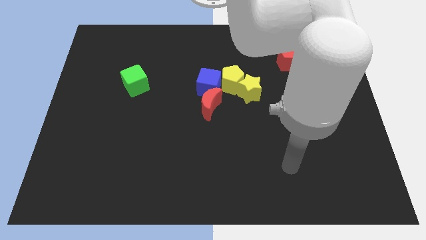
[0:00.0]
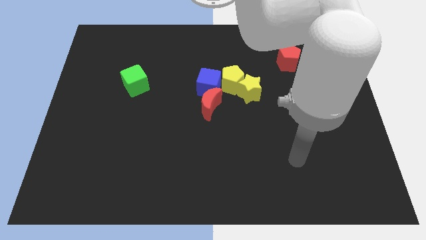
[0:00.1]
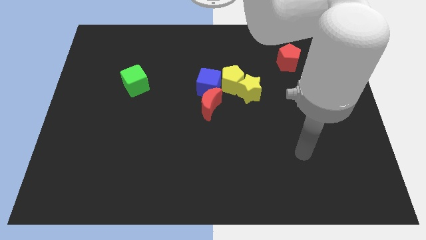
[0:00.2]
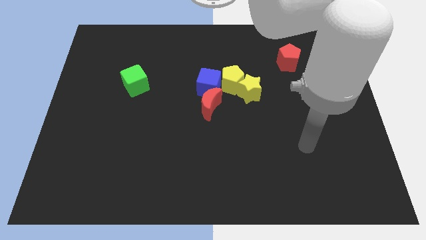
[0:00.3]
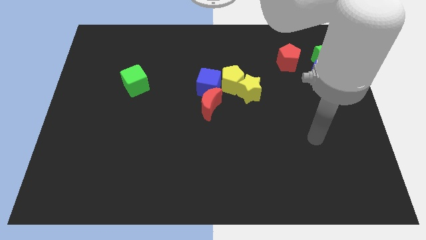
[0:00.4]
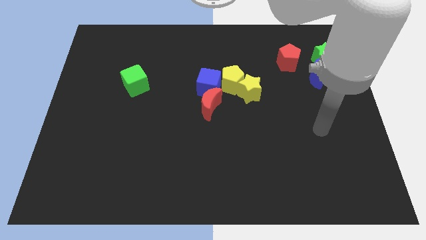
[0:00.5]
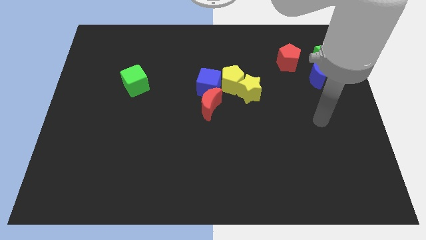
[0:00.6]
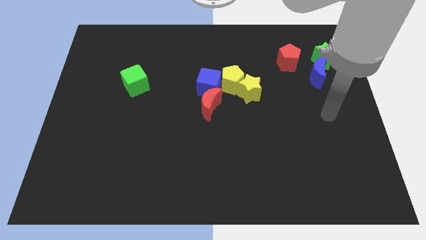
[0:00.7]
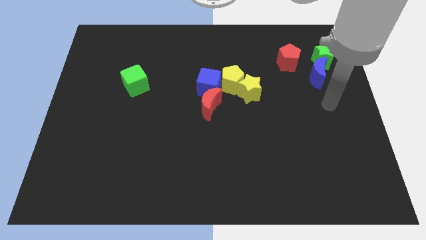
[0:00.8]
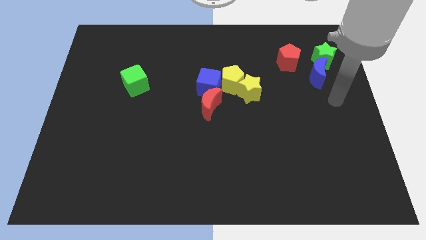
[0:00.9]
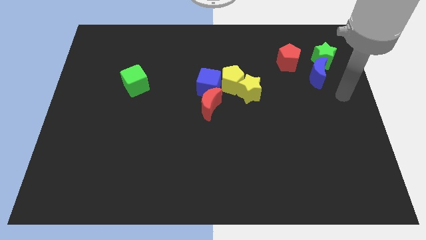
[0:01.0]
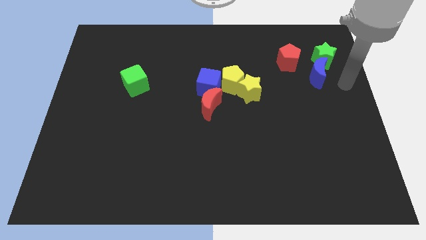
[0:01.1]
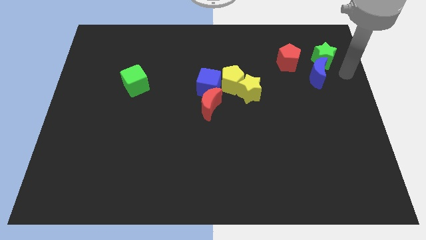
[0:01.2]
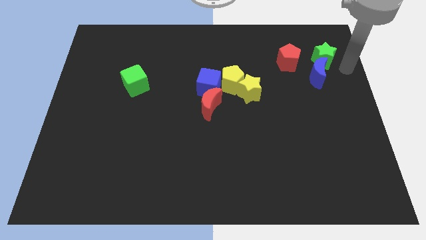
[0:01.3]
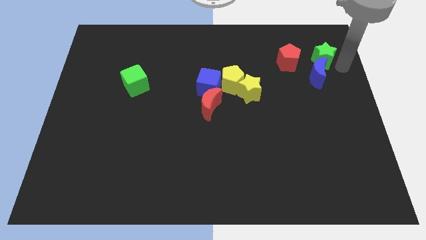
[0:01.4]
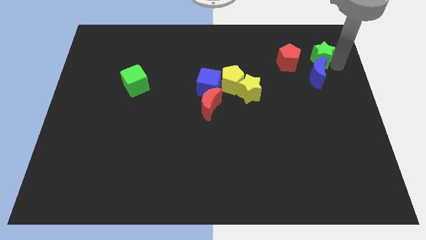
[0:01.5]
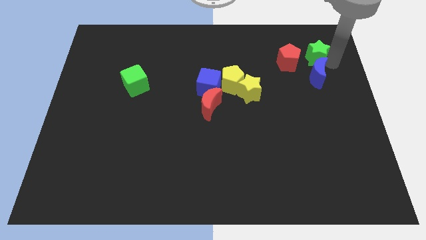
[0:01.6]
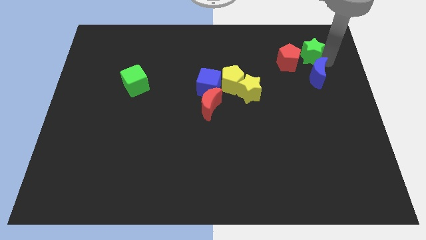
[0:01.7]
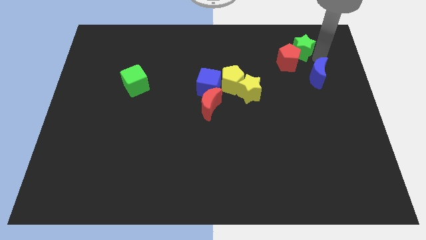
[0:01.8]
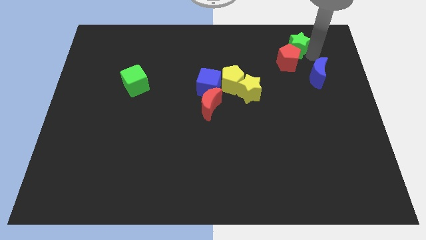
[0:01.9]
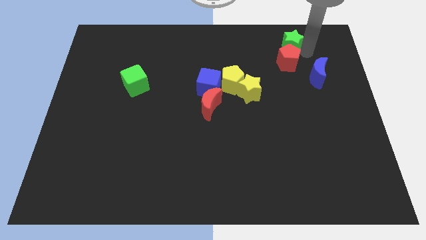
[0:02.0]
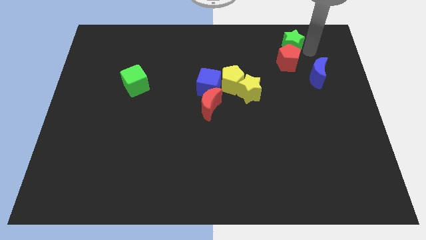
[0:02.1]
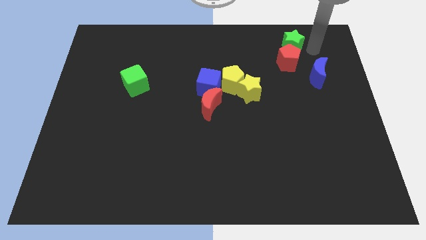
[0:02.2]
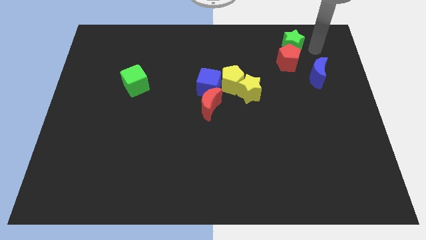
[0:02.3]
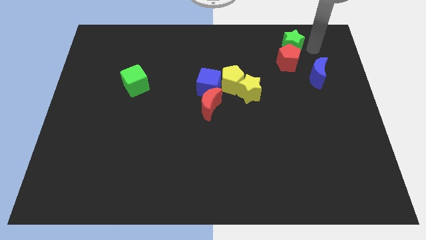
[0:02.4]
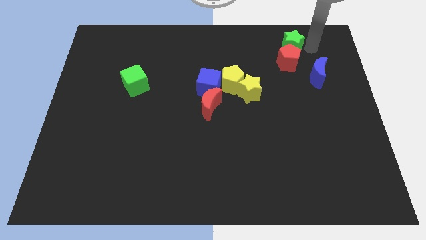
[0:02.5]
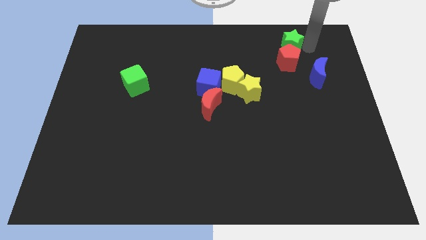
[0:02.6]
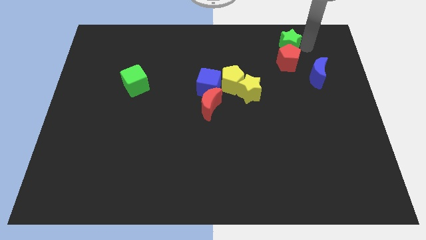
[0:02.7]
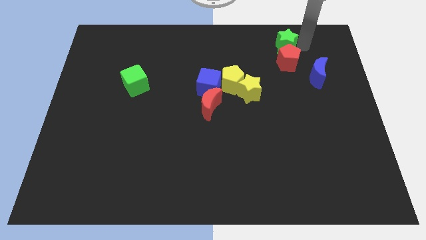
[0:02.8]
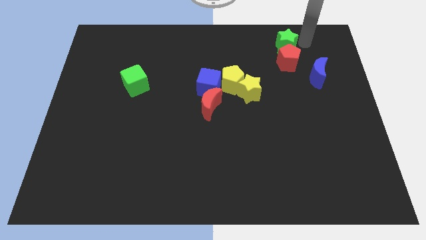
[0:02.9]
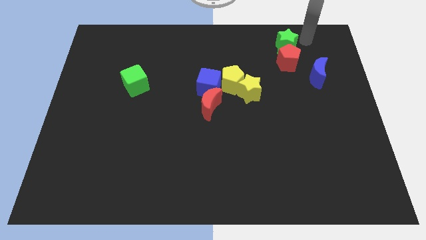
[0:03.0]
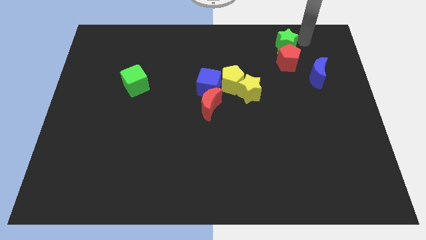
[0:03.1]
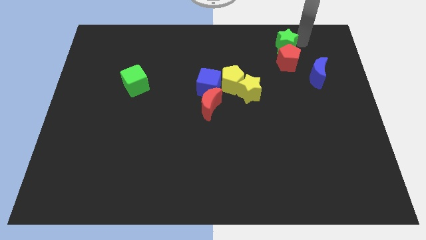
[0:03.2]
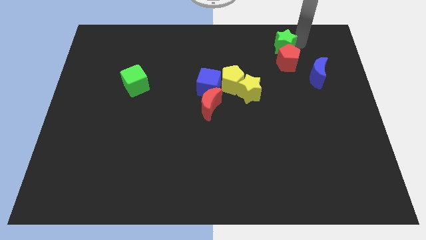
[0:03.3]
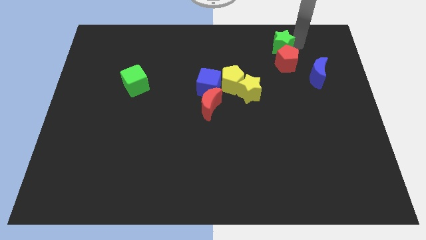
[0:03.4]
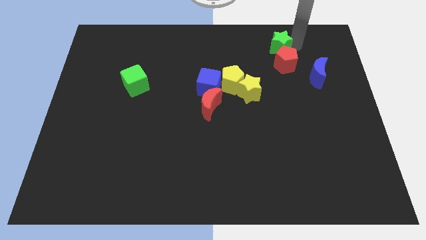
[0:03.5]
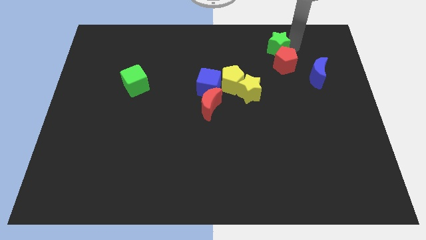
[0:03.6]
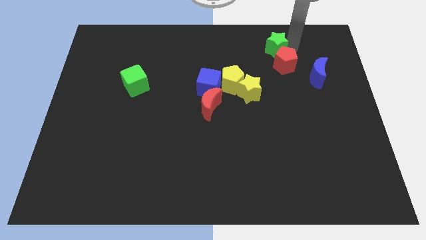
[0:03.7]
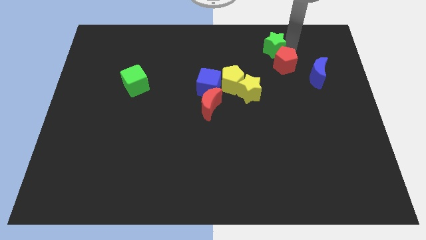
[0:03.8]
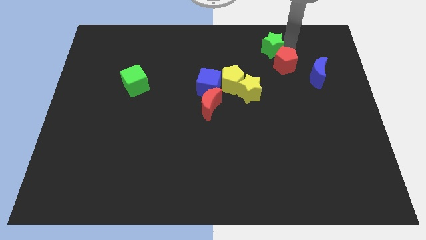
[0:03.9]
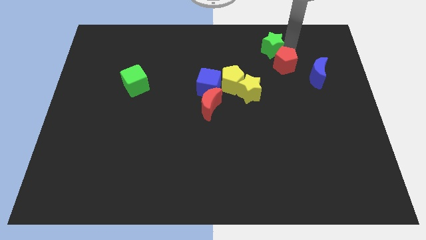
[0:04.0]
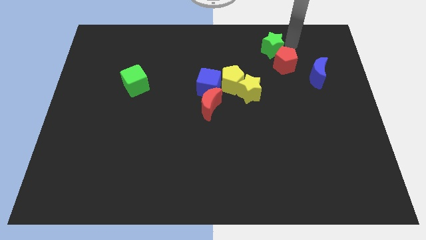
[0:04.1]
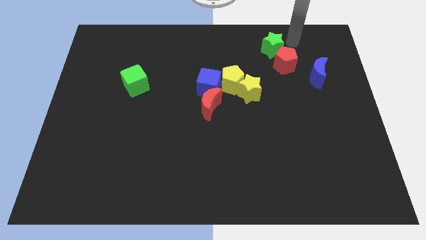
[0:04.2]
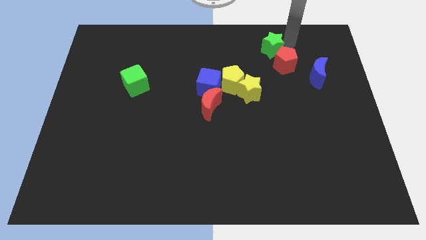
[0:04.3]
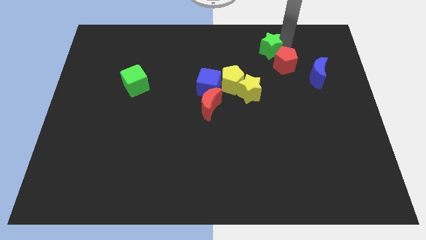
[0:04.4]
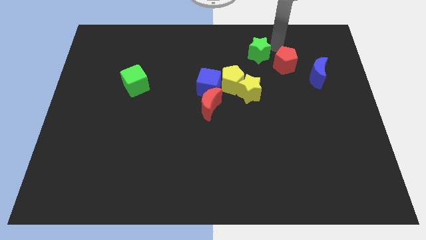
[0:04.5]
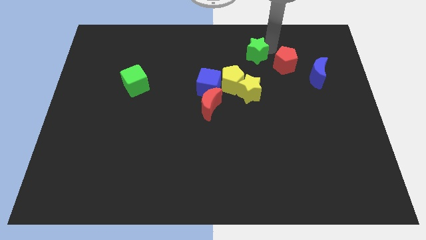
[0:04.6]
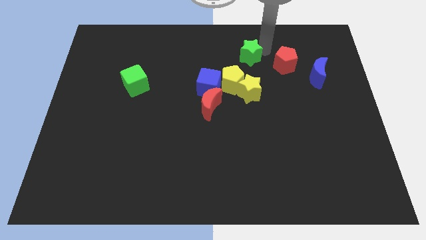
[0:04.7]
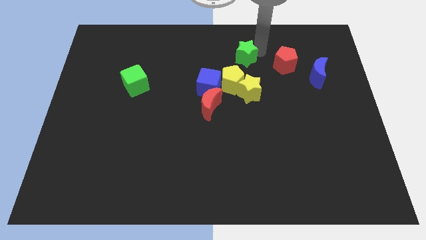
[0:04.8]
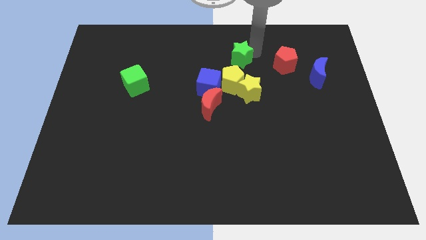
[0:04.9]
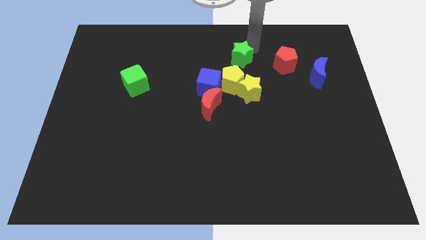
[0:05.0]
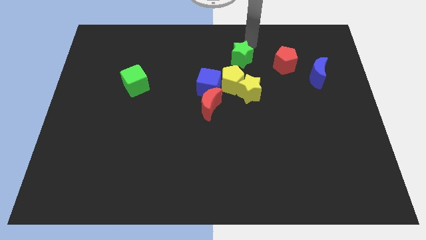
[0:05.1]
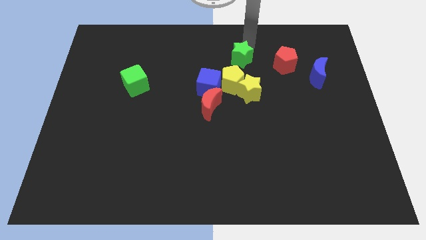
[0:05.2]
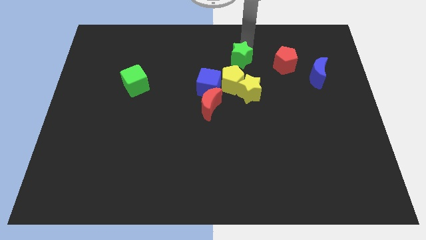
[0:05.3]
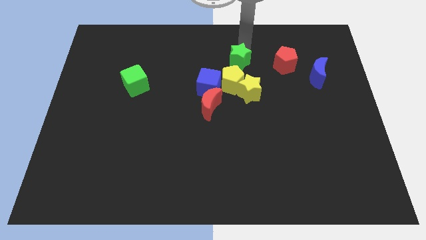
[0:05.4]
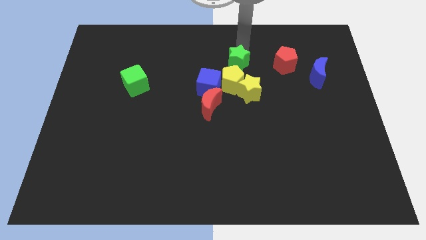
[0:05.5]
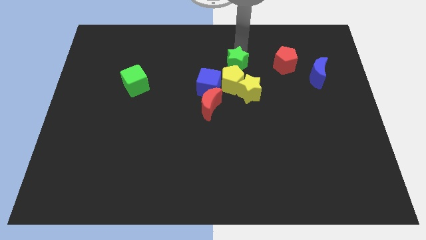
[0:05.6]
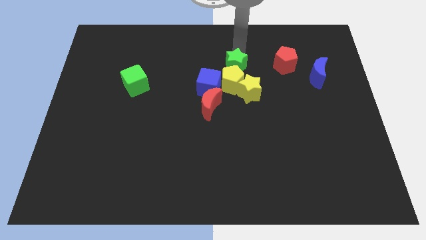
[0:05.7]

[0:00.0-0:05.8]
put the green star to the top left of the yellow star

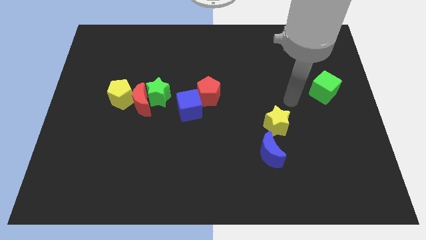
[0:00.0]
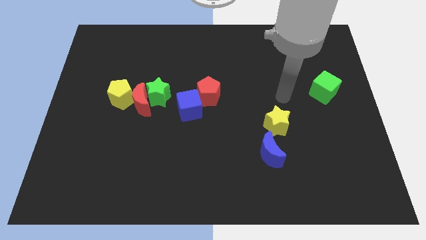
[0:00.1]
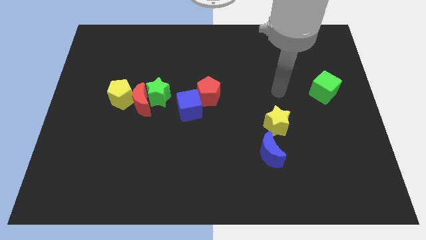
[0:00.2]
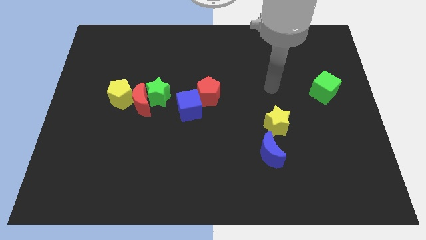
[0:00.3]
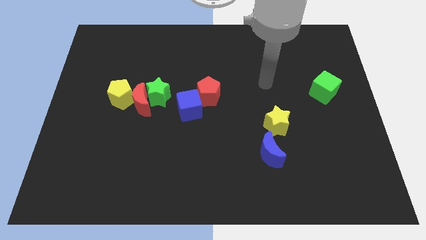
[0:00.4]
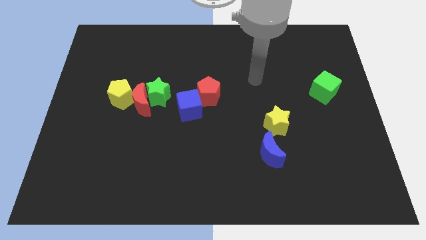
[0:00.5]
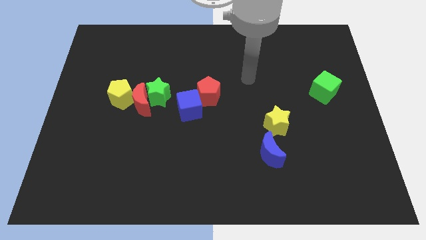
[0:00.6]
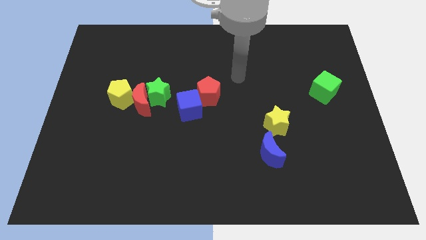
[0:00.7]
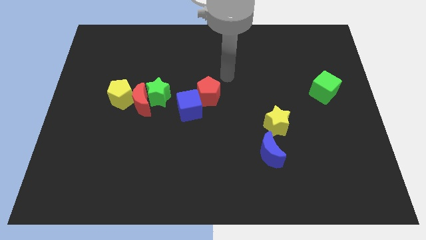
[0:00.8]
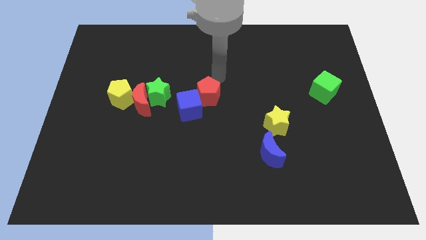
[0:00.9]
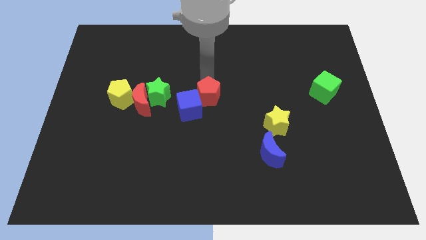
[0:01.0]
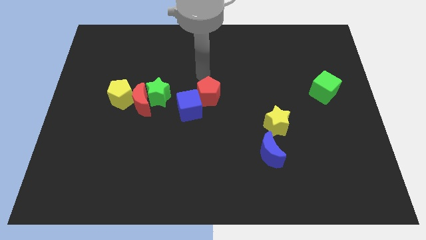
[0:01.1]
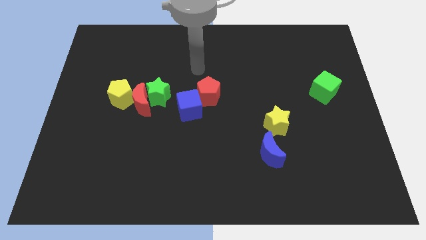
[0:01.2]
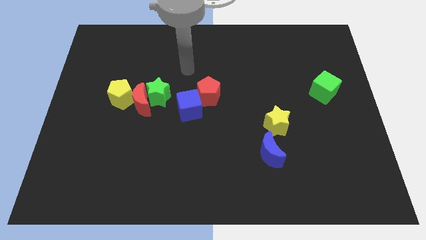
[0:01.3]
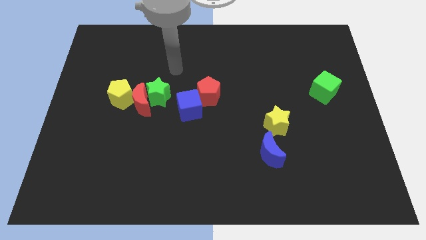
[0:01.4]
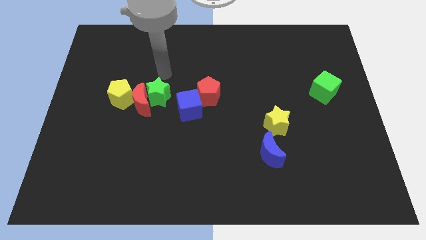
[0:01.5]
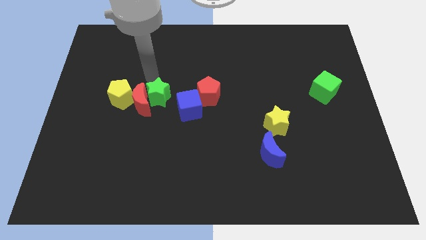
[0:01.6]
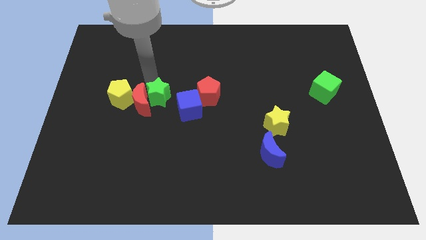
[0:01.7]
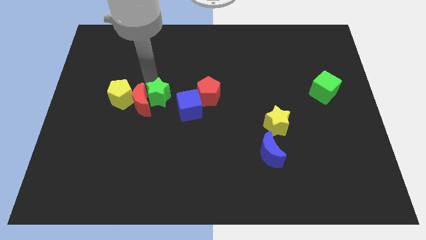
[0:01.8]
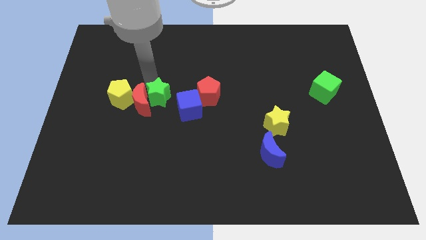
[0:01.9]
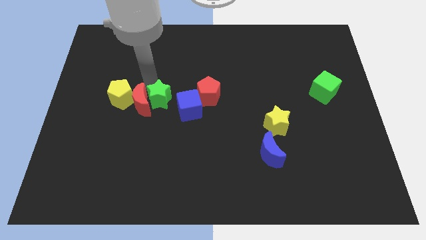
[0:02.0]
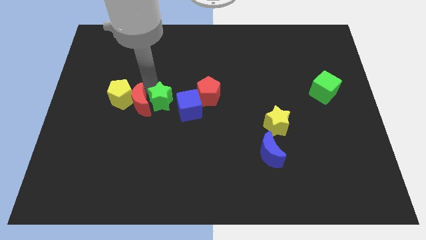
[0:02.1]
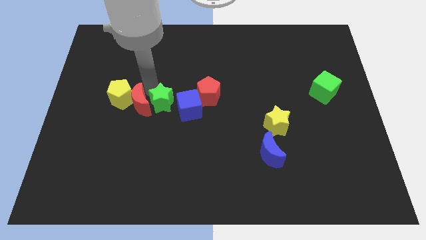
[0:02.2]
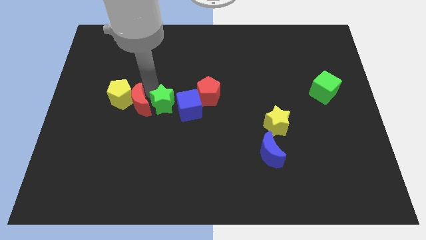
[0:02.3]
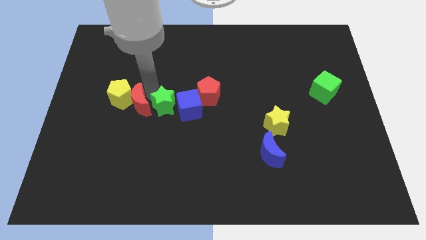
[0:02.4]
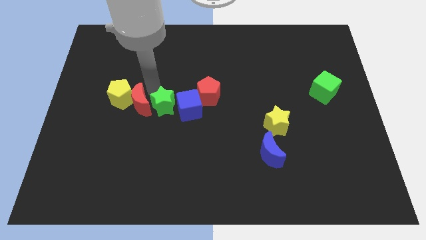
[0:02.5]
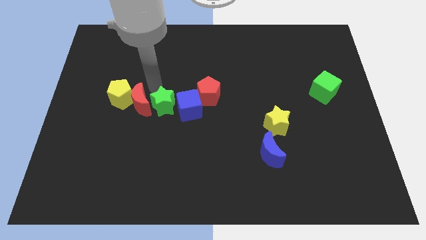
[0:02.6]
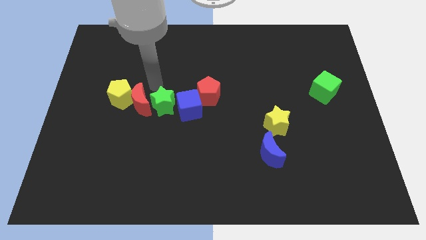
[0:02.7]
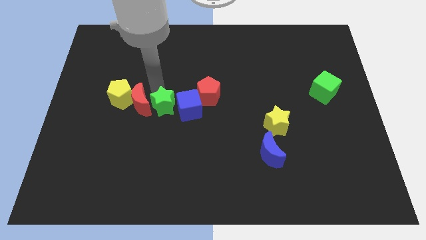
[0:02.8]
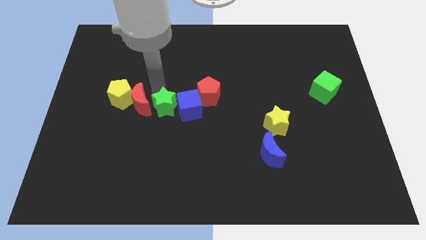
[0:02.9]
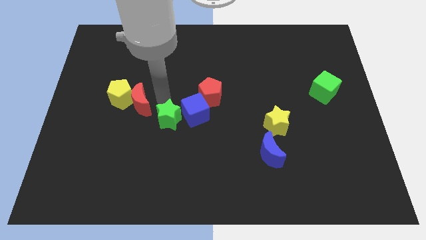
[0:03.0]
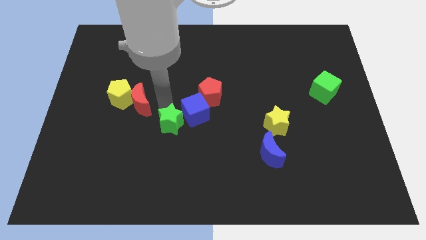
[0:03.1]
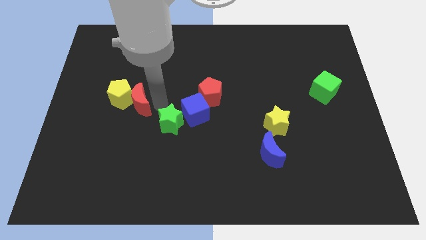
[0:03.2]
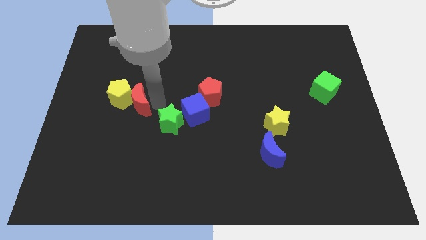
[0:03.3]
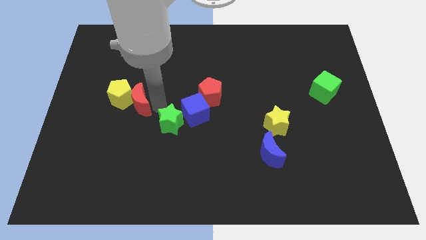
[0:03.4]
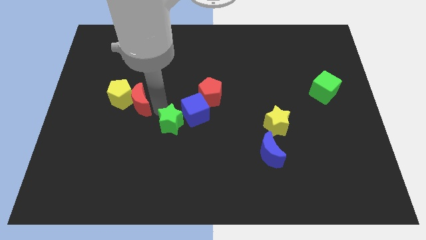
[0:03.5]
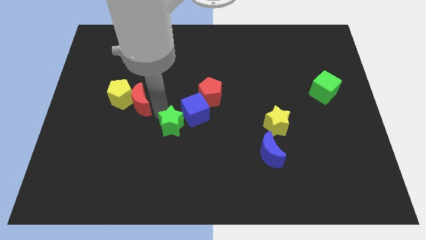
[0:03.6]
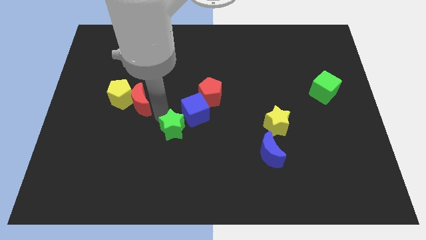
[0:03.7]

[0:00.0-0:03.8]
slide the green star to the bottom of the blue cube
